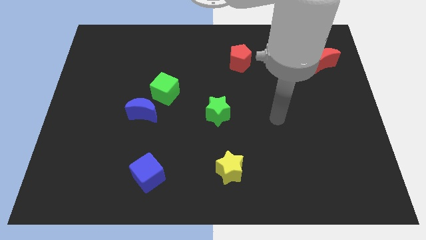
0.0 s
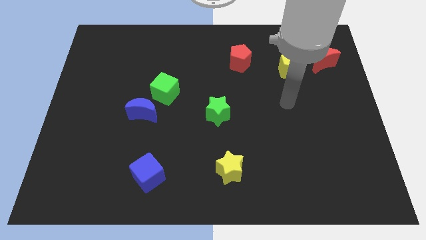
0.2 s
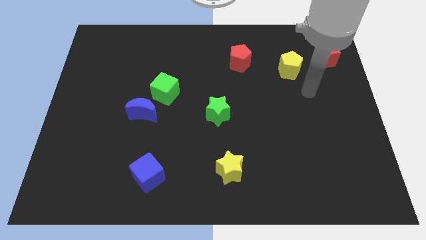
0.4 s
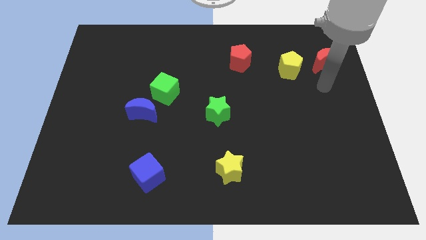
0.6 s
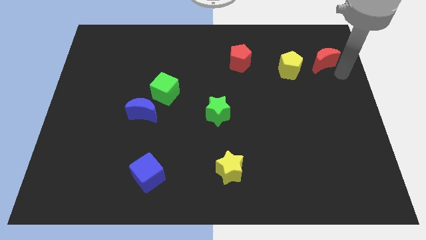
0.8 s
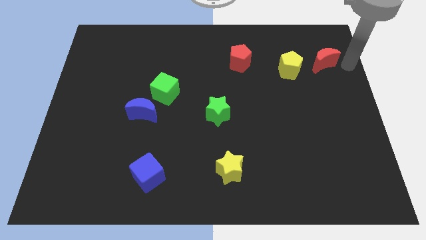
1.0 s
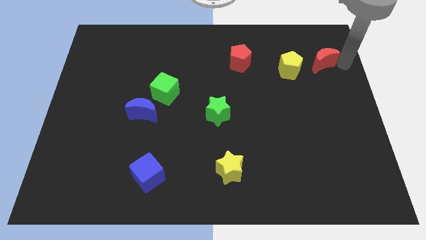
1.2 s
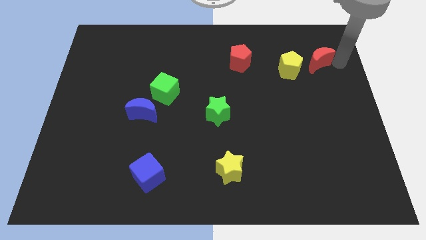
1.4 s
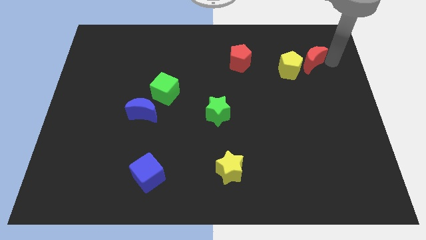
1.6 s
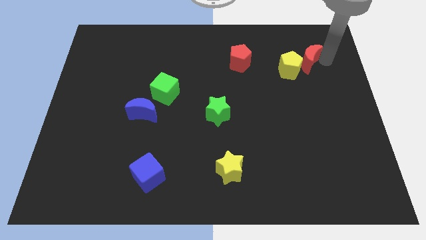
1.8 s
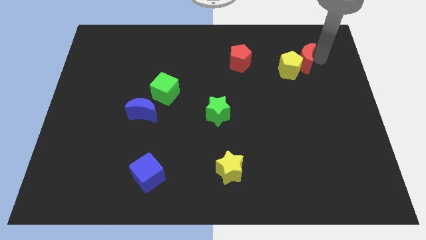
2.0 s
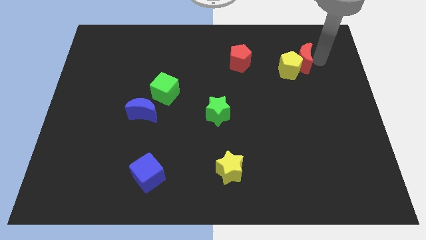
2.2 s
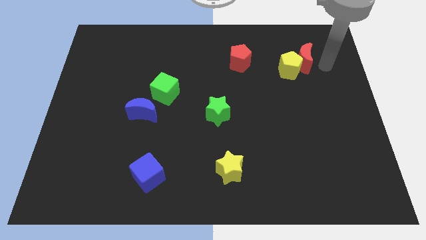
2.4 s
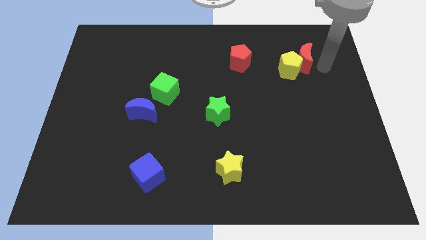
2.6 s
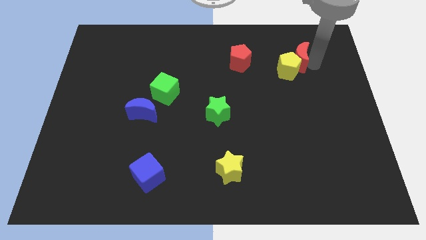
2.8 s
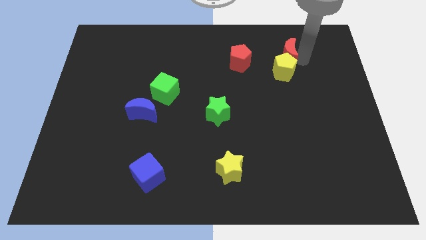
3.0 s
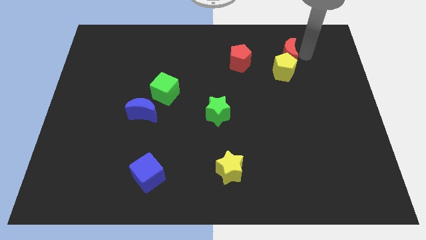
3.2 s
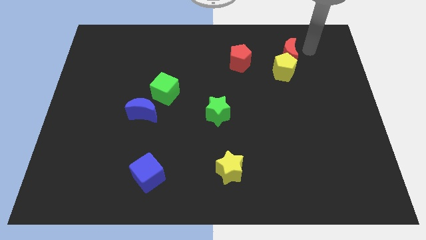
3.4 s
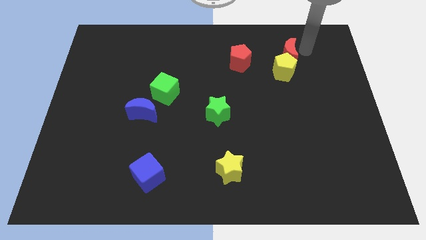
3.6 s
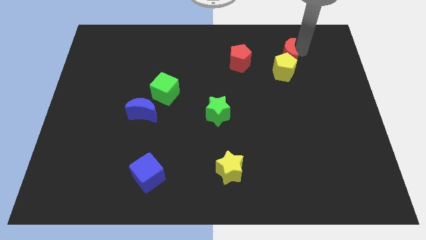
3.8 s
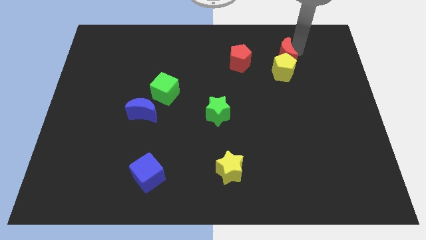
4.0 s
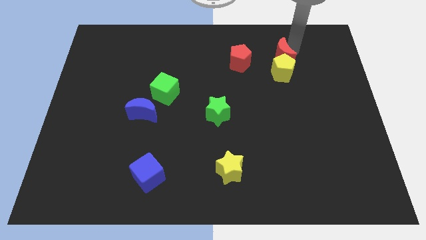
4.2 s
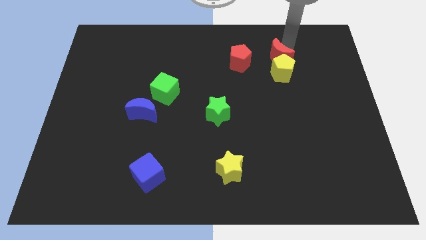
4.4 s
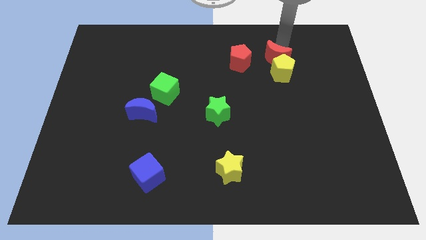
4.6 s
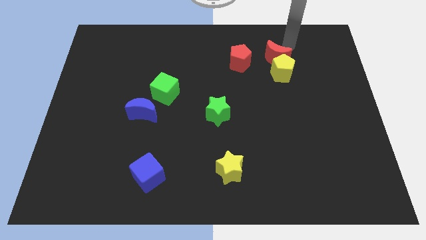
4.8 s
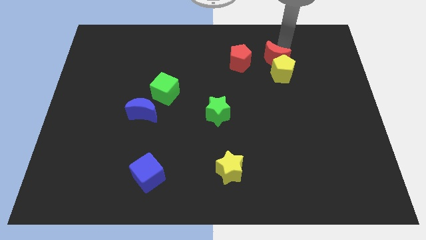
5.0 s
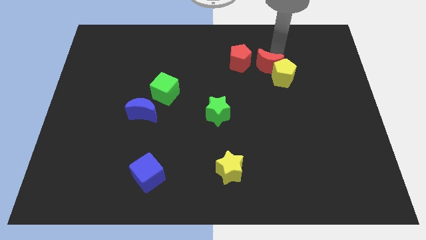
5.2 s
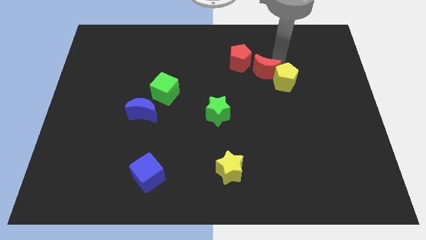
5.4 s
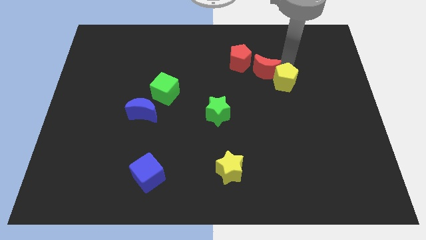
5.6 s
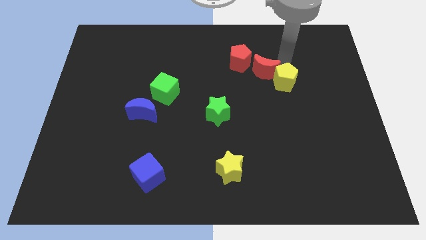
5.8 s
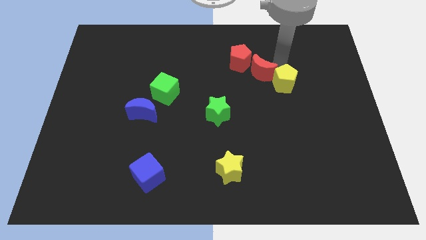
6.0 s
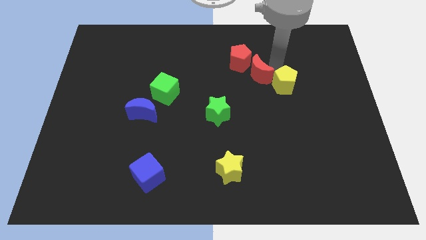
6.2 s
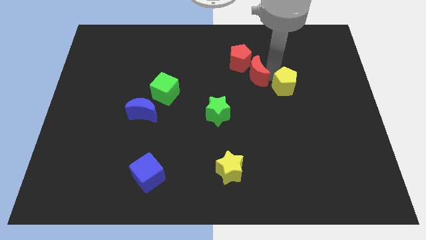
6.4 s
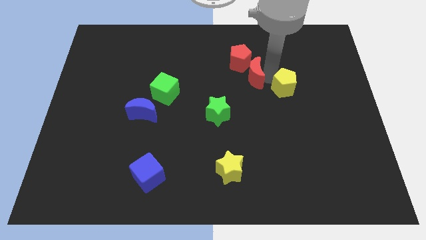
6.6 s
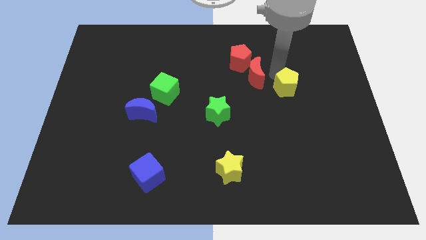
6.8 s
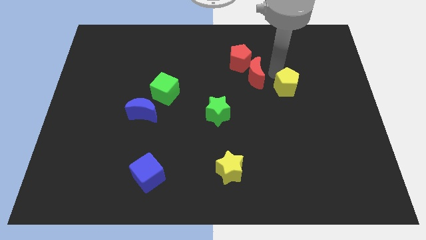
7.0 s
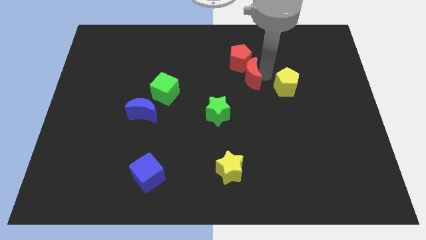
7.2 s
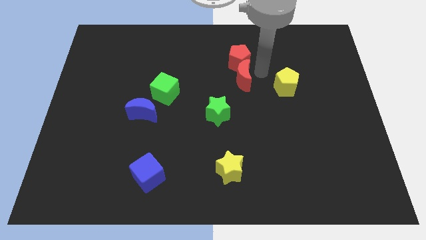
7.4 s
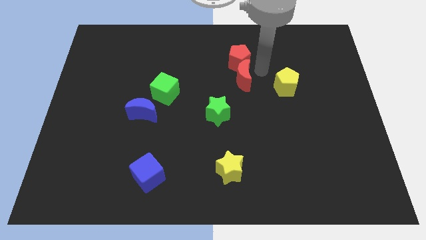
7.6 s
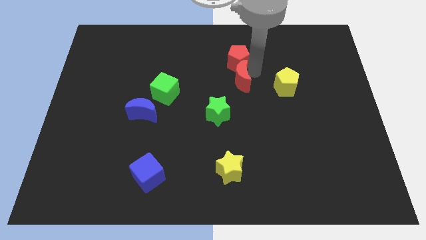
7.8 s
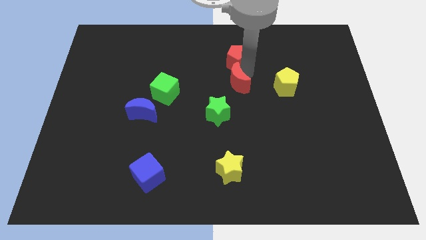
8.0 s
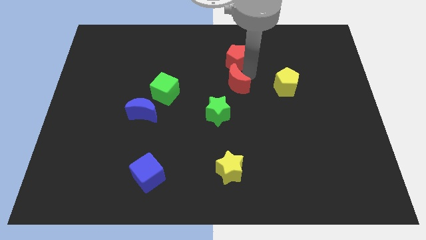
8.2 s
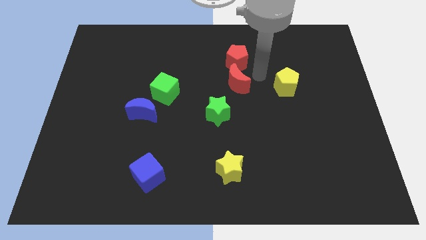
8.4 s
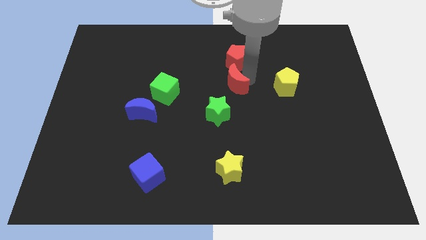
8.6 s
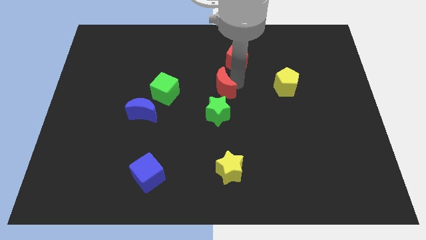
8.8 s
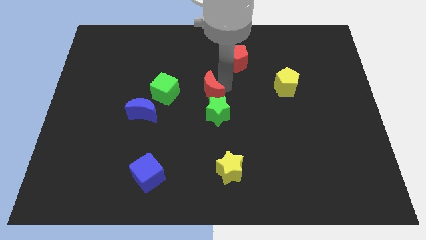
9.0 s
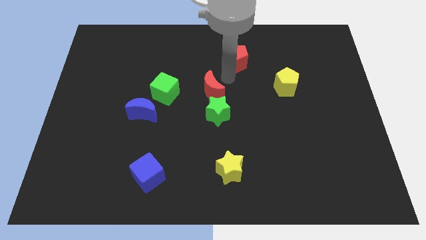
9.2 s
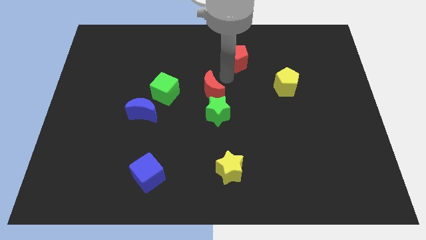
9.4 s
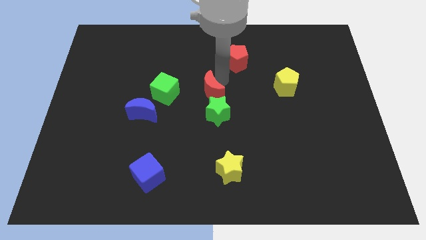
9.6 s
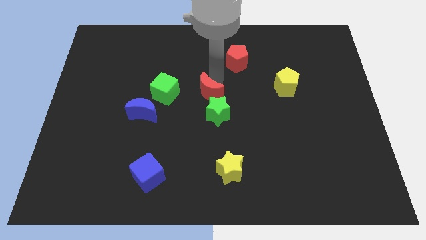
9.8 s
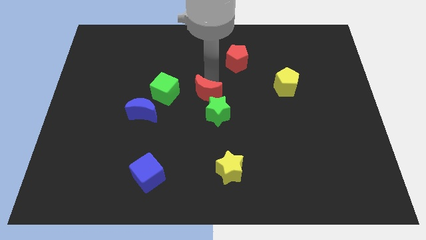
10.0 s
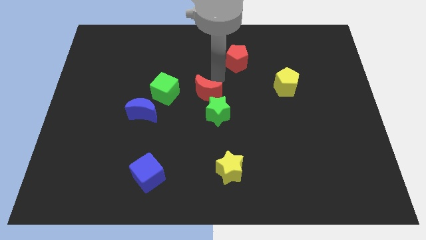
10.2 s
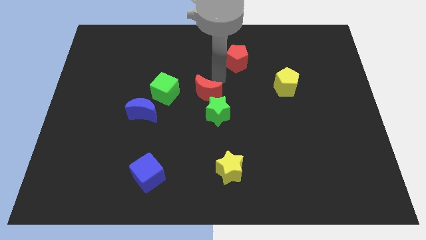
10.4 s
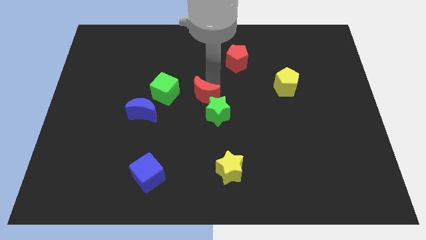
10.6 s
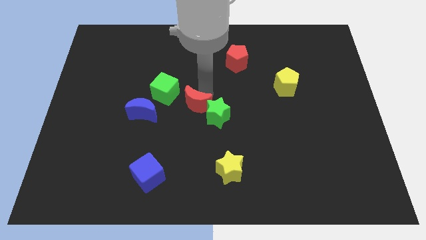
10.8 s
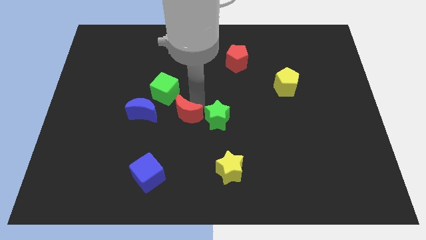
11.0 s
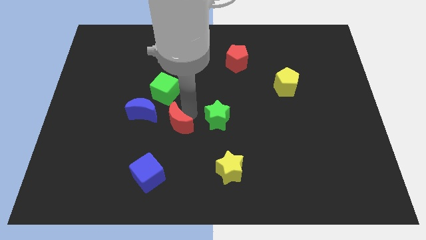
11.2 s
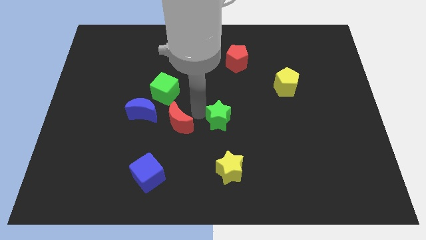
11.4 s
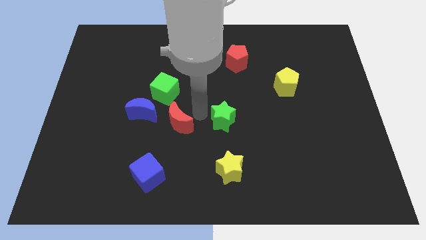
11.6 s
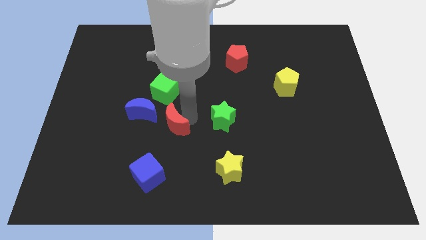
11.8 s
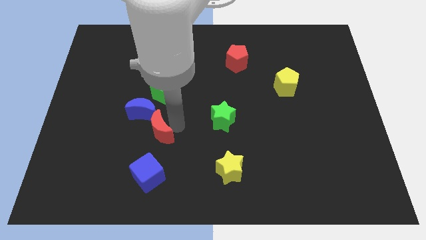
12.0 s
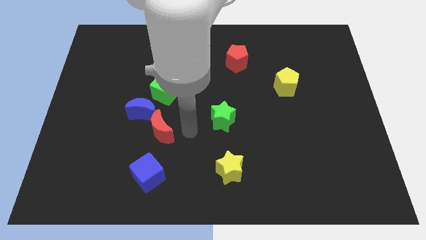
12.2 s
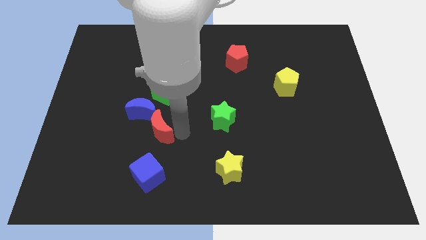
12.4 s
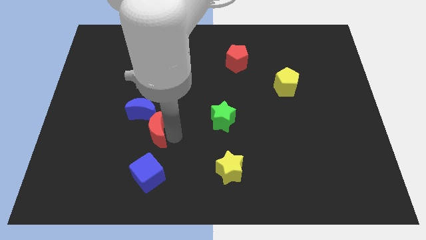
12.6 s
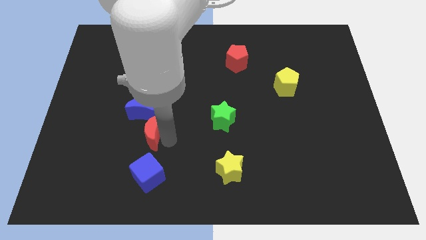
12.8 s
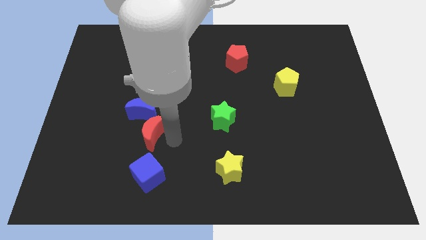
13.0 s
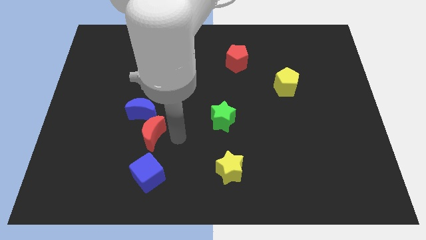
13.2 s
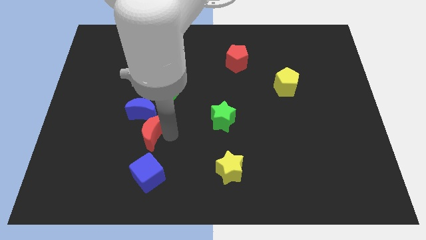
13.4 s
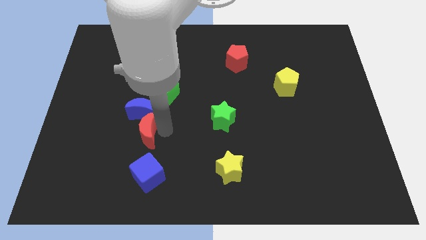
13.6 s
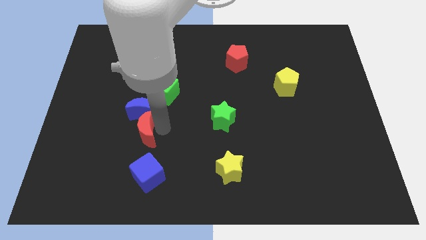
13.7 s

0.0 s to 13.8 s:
push the red moon diagonally down and to the left of the blue moon

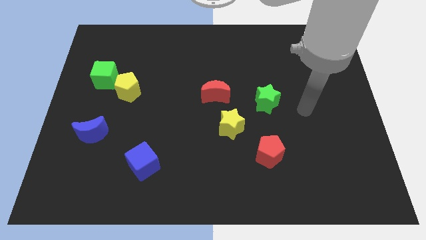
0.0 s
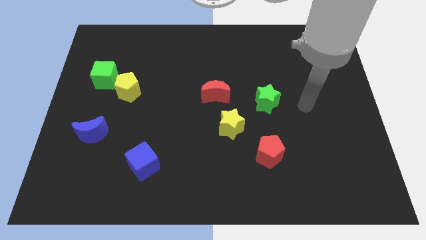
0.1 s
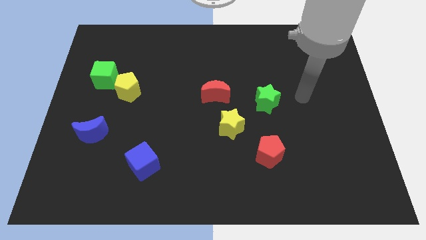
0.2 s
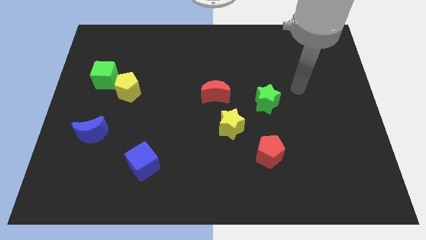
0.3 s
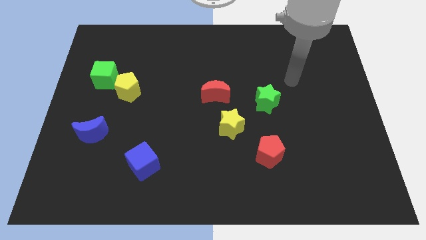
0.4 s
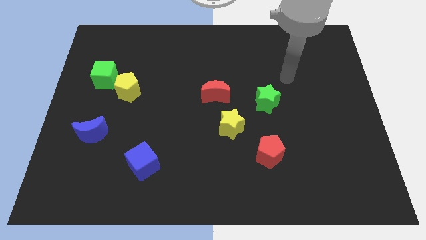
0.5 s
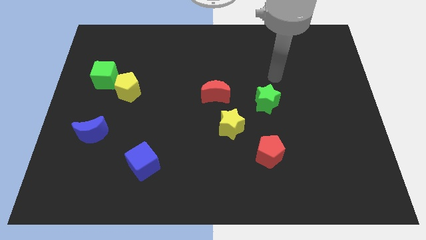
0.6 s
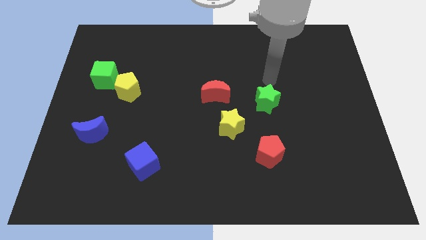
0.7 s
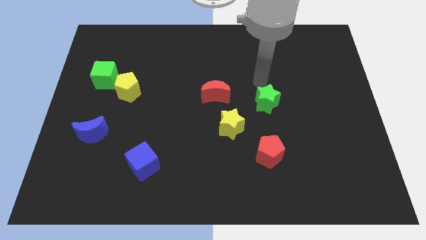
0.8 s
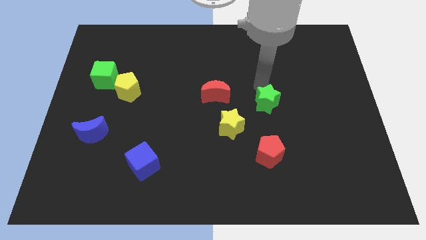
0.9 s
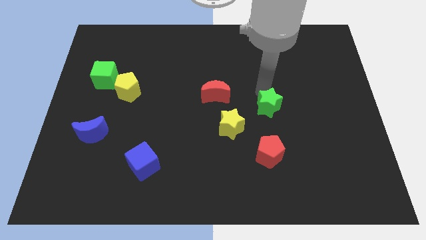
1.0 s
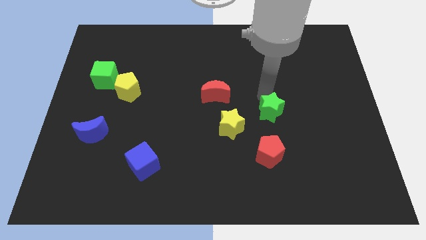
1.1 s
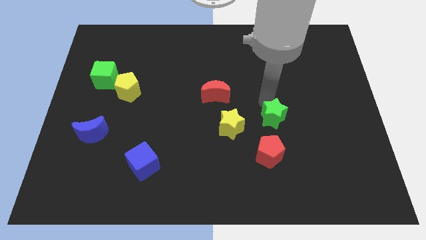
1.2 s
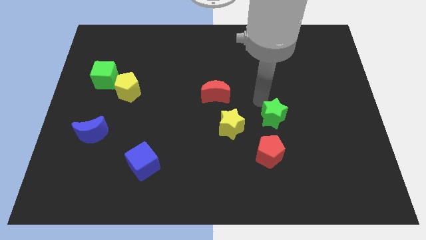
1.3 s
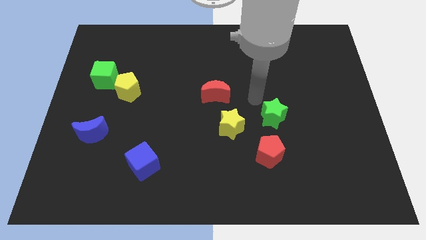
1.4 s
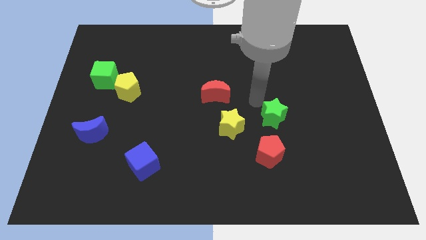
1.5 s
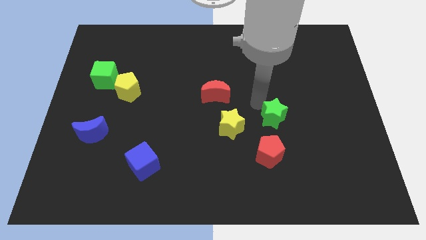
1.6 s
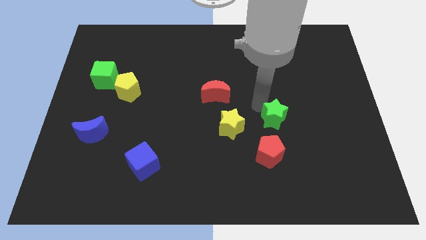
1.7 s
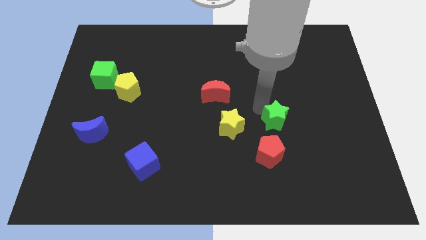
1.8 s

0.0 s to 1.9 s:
move the green star diagonally up and to the right of the red pentagon
